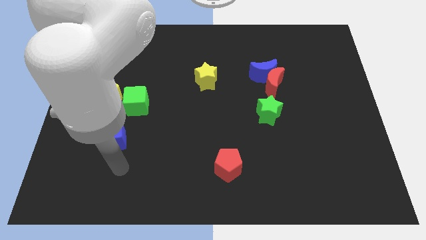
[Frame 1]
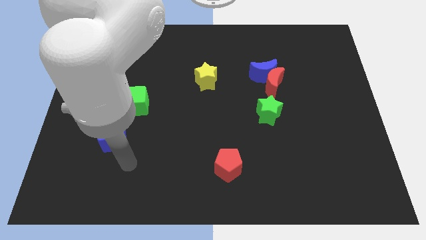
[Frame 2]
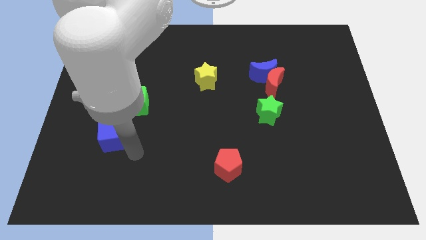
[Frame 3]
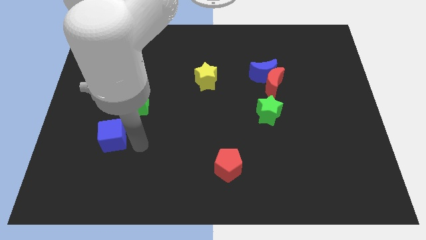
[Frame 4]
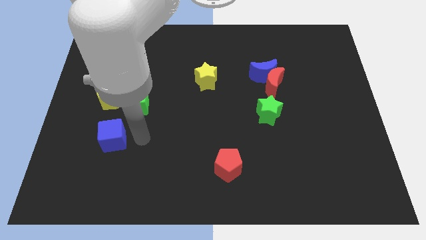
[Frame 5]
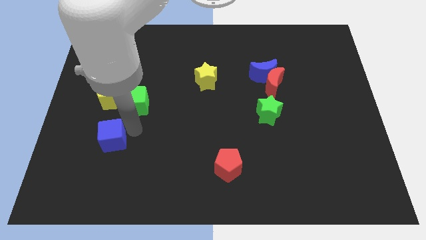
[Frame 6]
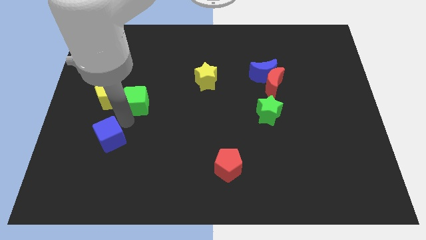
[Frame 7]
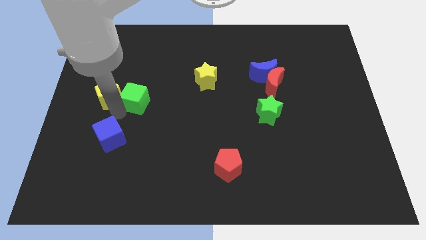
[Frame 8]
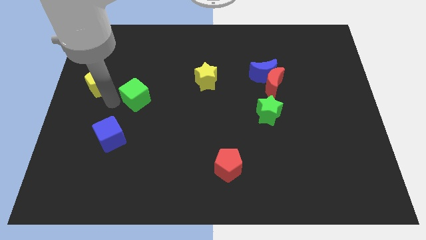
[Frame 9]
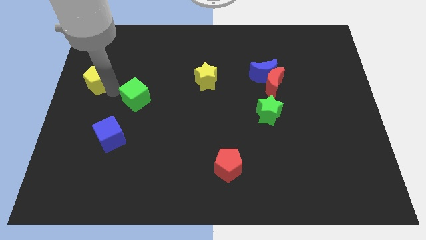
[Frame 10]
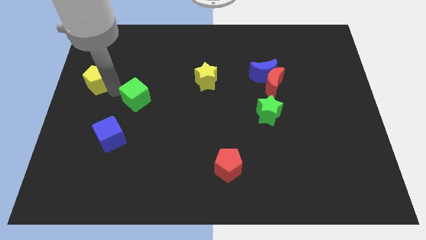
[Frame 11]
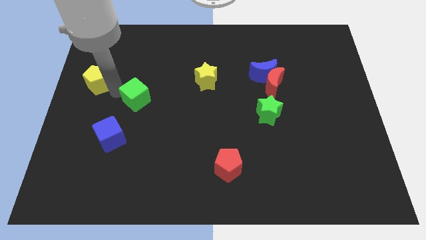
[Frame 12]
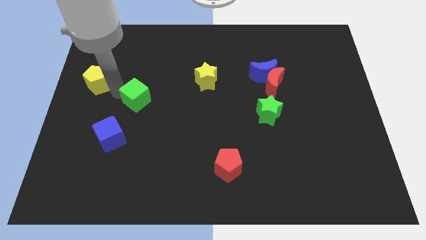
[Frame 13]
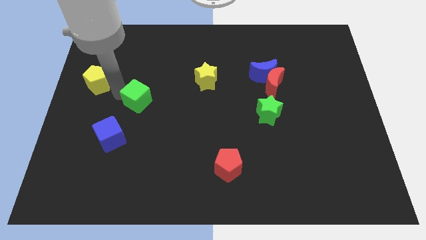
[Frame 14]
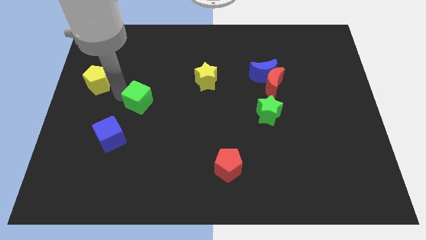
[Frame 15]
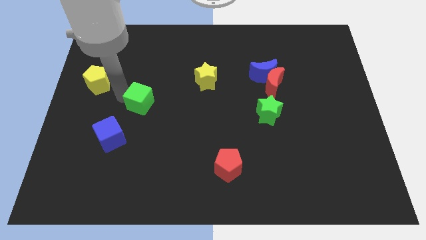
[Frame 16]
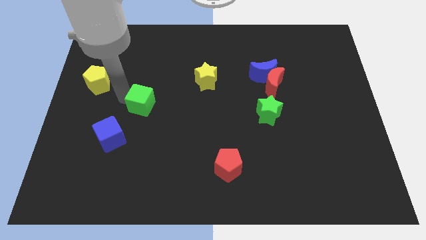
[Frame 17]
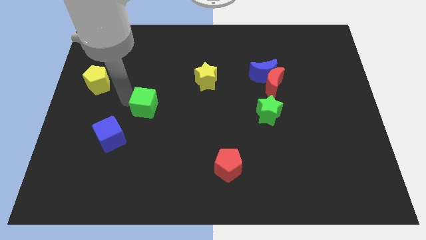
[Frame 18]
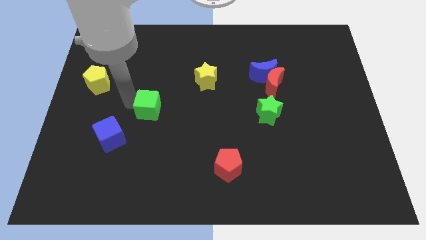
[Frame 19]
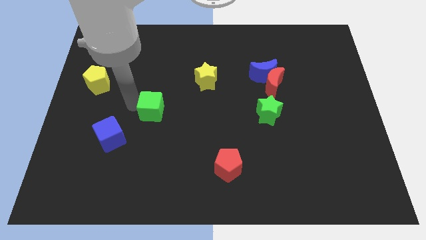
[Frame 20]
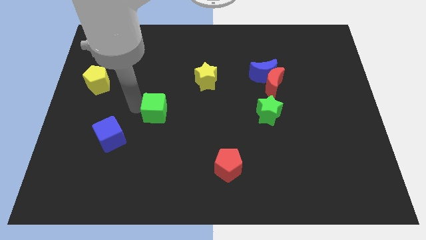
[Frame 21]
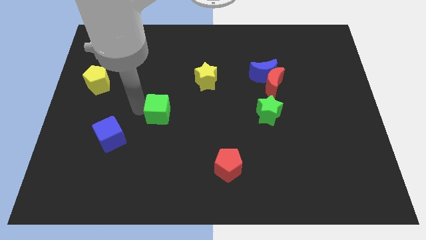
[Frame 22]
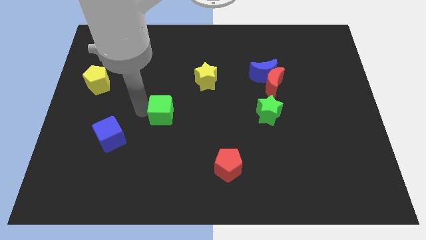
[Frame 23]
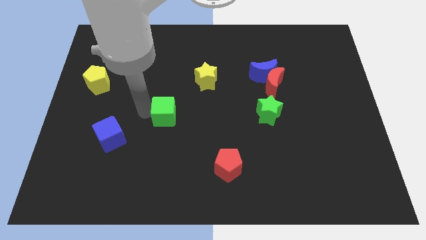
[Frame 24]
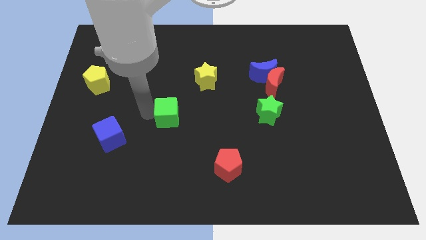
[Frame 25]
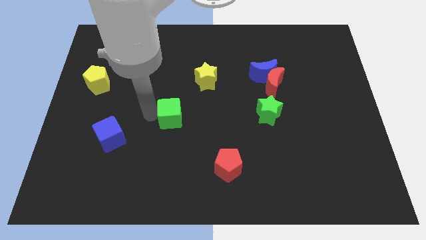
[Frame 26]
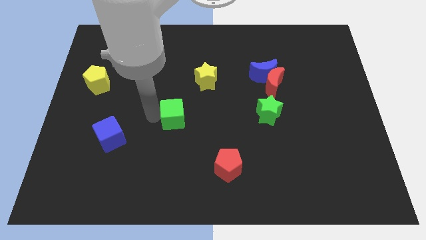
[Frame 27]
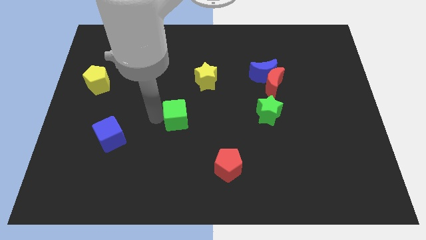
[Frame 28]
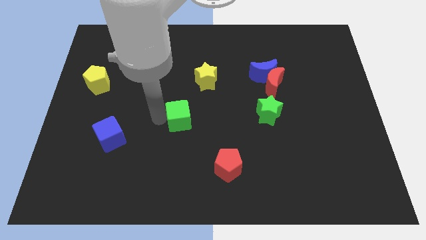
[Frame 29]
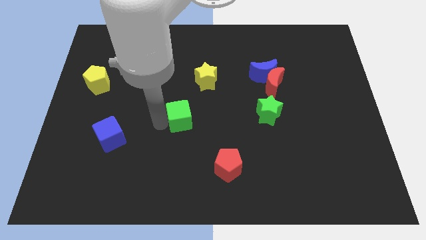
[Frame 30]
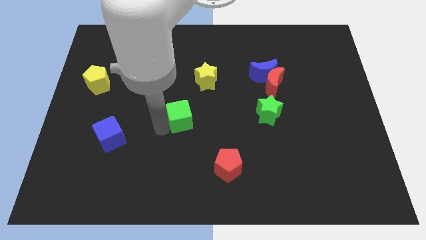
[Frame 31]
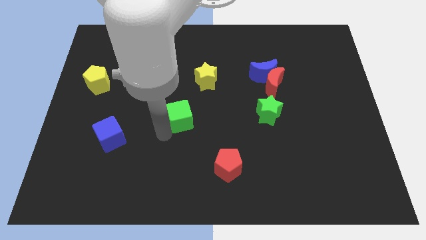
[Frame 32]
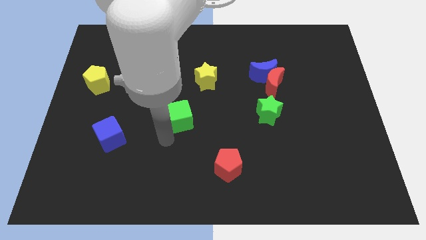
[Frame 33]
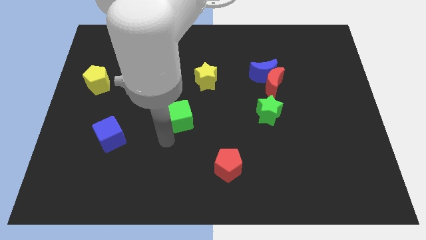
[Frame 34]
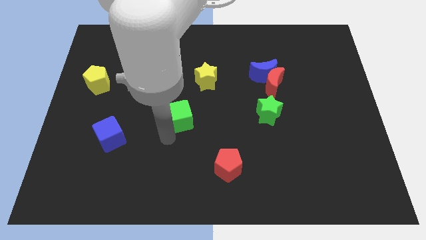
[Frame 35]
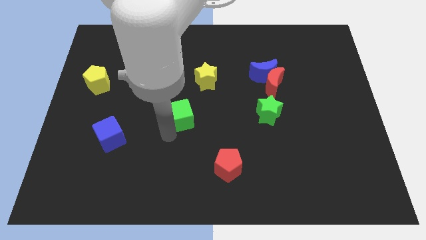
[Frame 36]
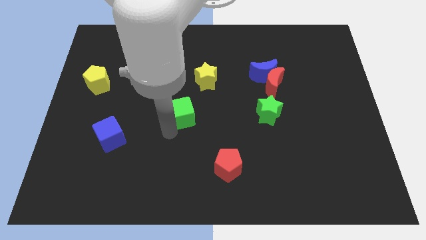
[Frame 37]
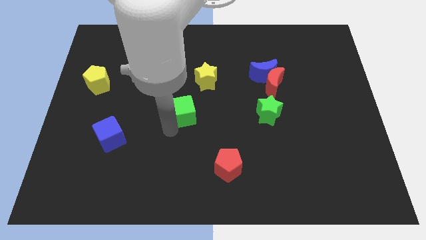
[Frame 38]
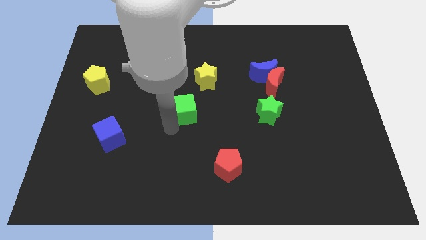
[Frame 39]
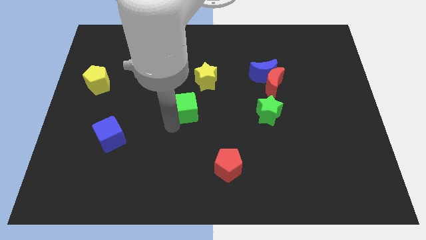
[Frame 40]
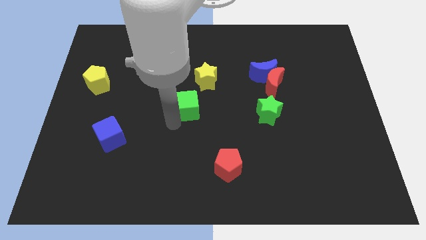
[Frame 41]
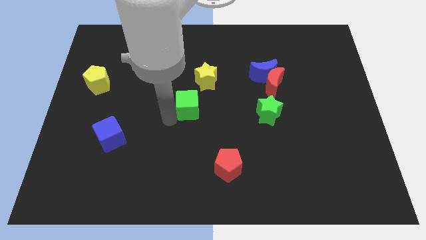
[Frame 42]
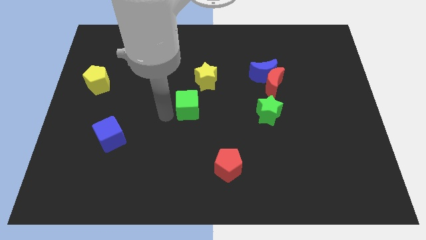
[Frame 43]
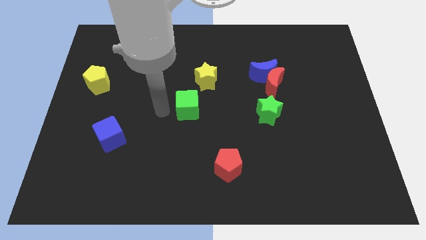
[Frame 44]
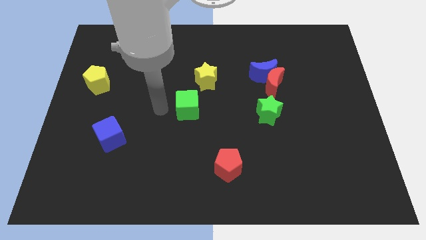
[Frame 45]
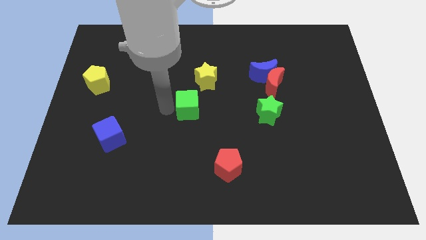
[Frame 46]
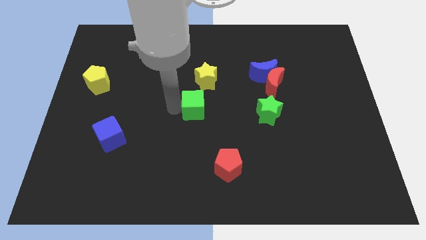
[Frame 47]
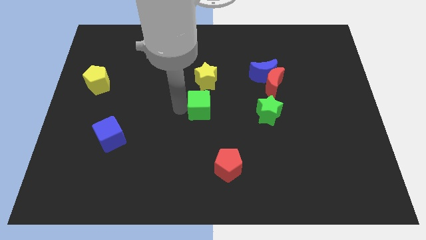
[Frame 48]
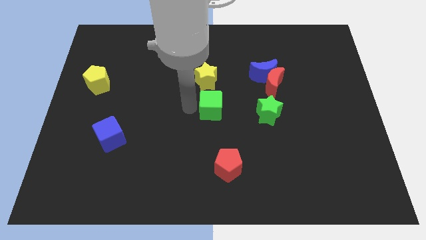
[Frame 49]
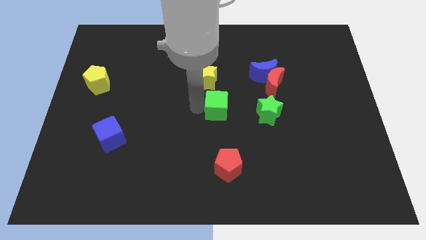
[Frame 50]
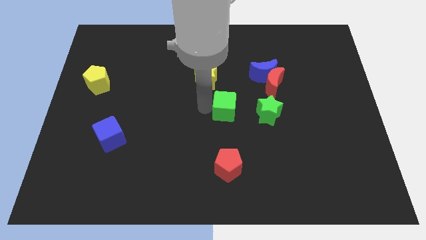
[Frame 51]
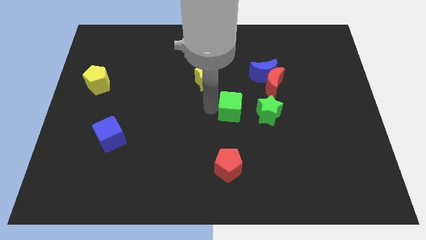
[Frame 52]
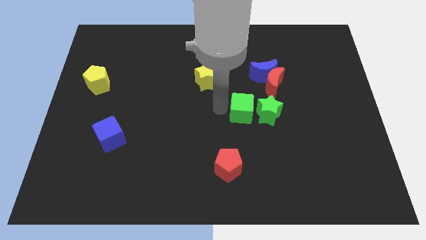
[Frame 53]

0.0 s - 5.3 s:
push the green cube close to the green star

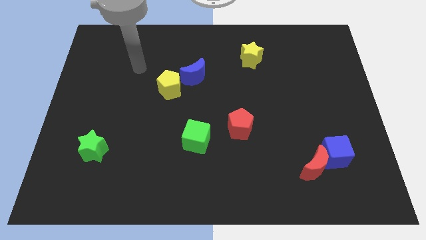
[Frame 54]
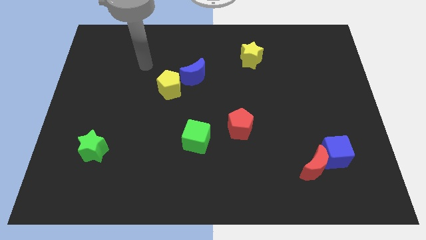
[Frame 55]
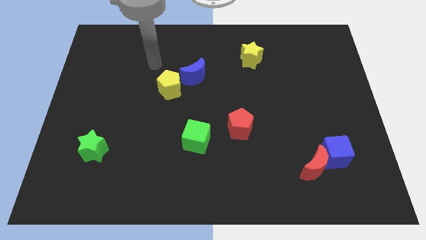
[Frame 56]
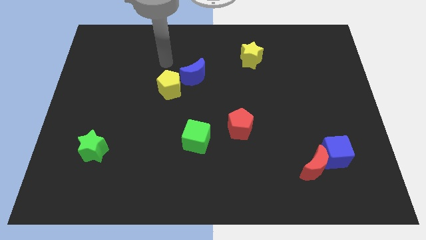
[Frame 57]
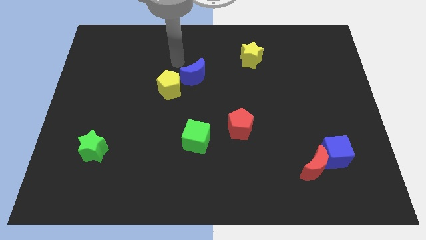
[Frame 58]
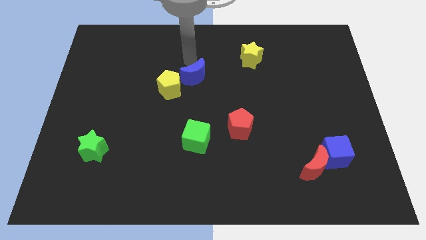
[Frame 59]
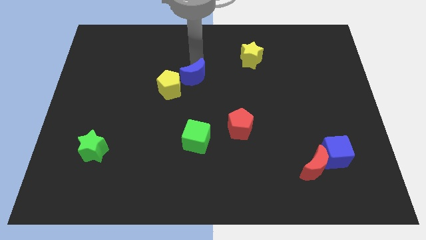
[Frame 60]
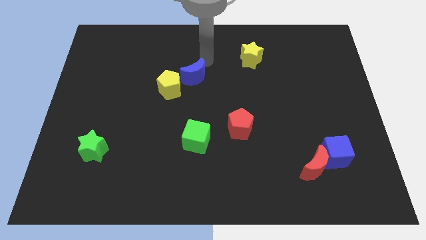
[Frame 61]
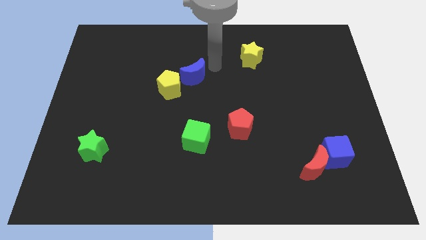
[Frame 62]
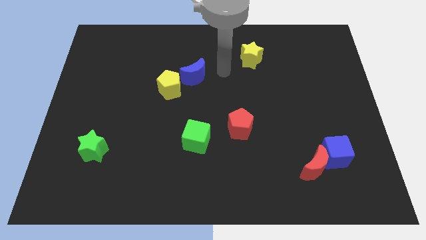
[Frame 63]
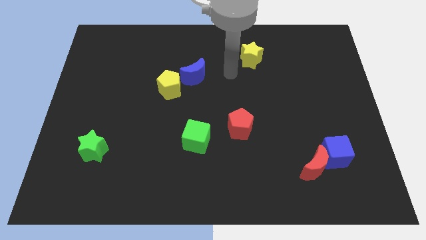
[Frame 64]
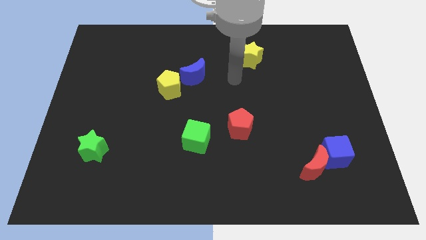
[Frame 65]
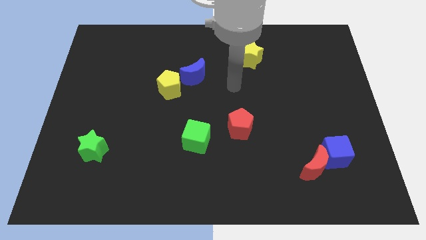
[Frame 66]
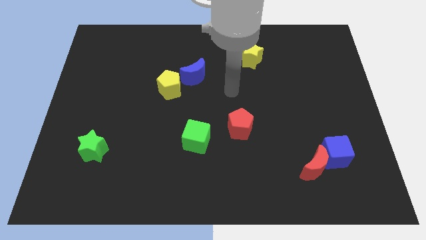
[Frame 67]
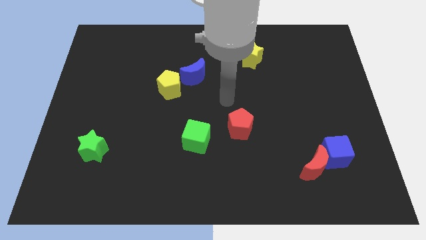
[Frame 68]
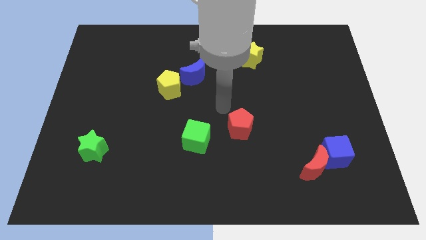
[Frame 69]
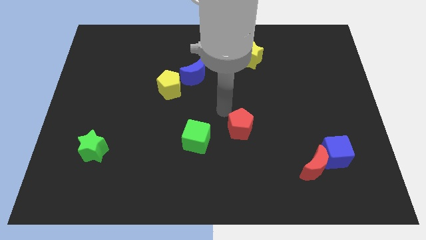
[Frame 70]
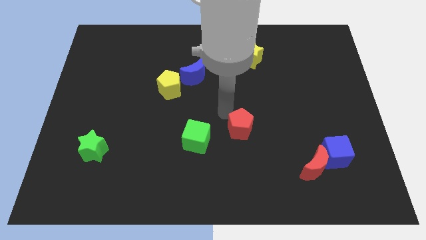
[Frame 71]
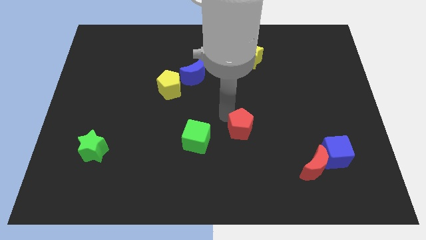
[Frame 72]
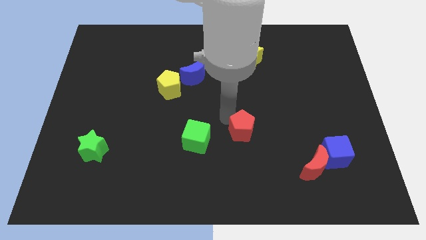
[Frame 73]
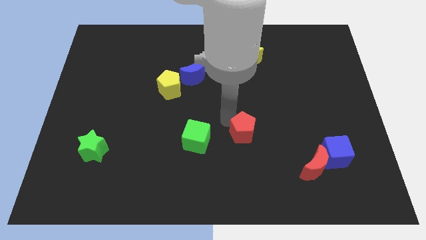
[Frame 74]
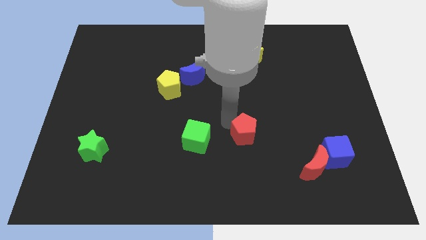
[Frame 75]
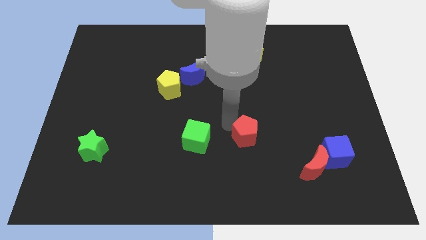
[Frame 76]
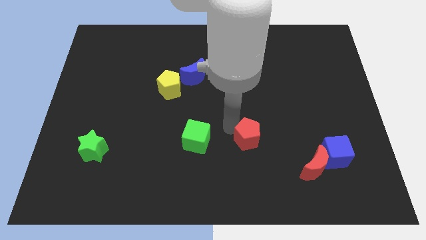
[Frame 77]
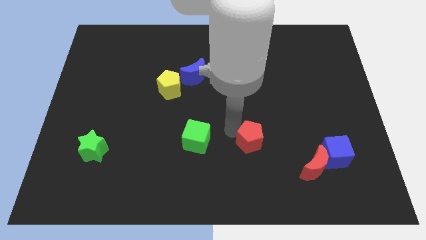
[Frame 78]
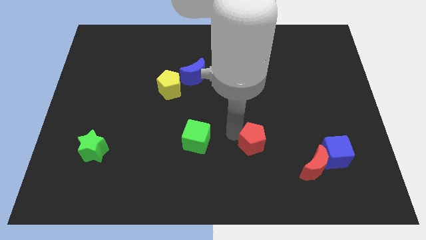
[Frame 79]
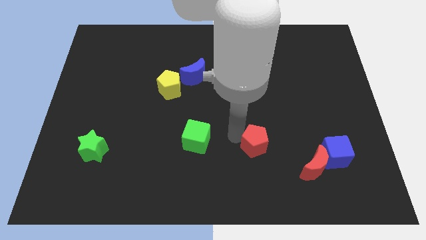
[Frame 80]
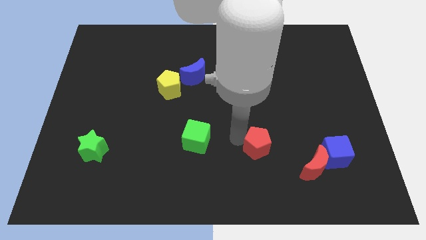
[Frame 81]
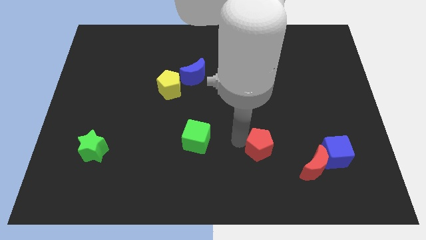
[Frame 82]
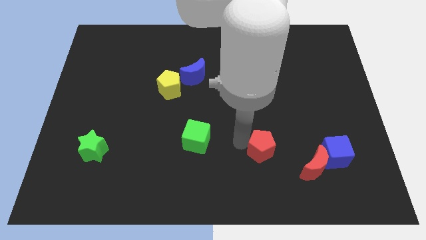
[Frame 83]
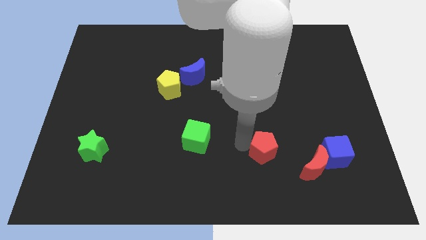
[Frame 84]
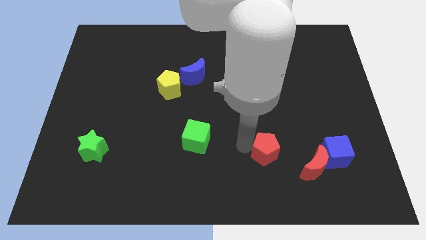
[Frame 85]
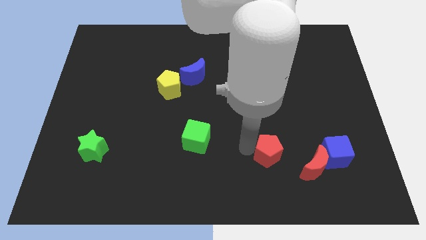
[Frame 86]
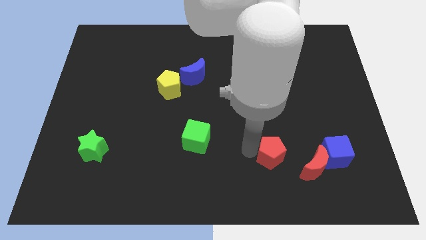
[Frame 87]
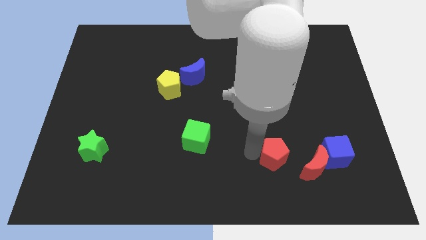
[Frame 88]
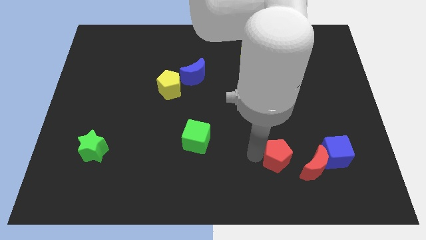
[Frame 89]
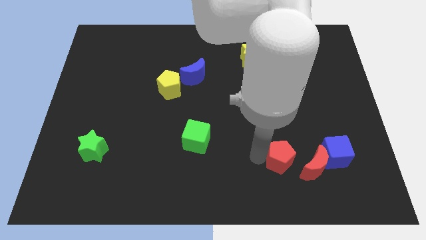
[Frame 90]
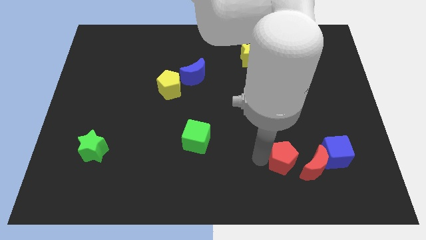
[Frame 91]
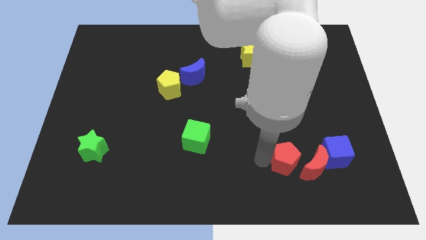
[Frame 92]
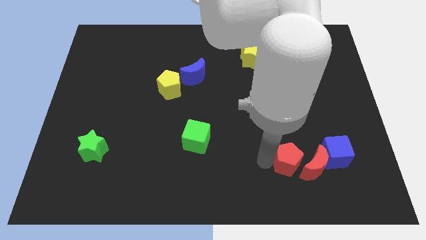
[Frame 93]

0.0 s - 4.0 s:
push the red pentagon to the red moon
